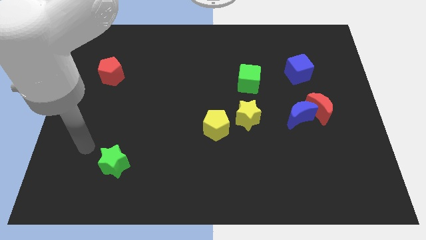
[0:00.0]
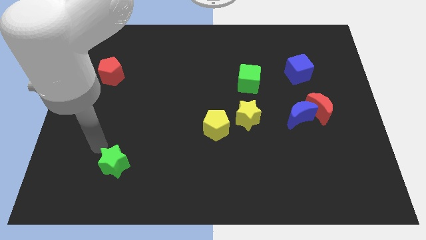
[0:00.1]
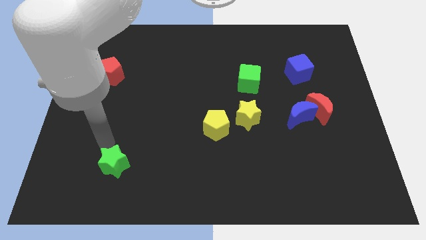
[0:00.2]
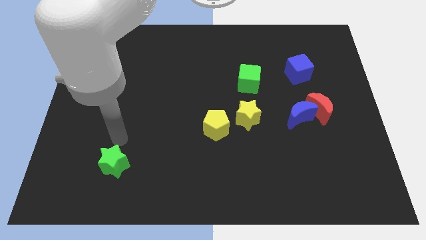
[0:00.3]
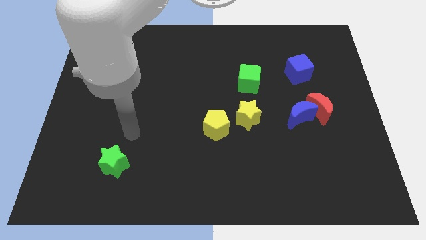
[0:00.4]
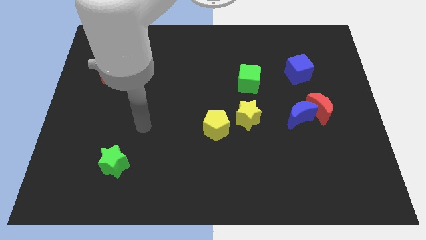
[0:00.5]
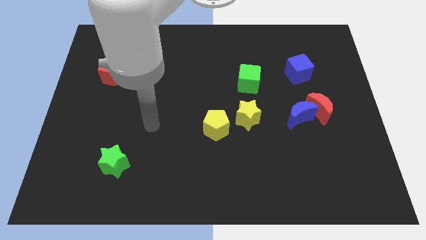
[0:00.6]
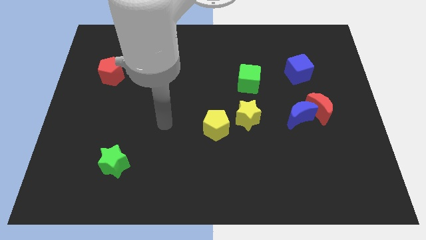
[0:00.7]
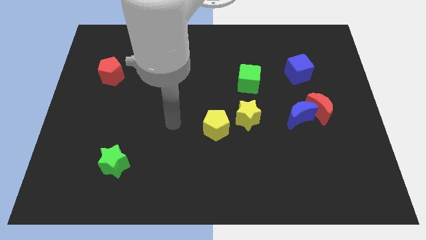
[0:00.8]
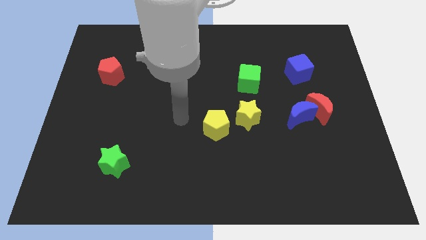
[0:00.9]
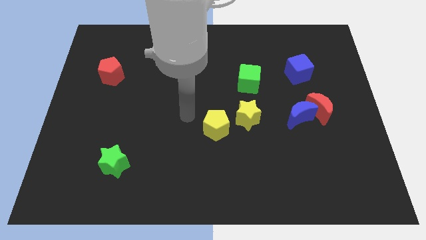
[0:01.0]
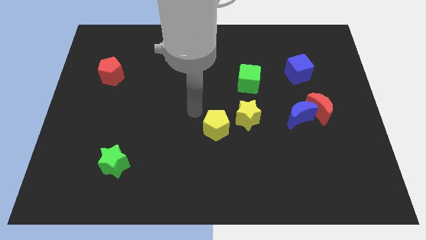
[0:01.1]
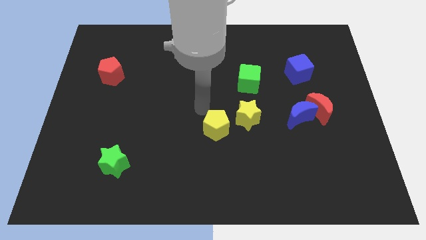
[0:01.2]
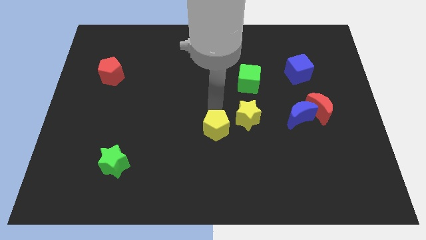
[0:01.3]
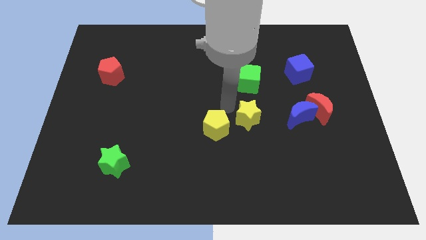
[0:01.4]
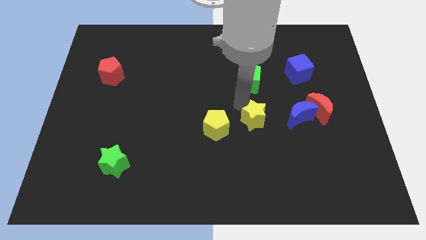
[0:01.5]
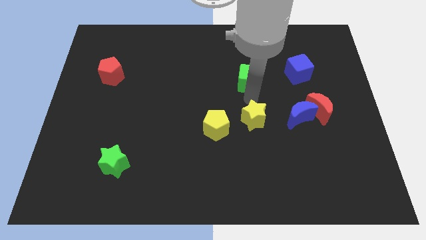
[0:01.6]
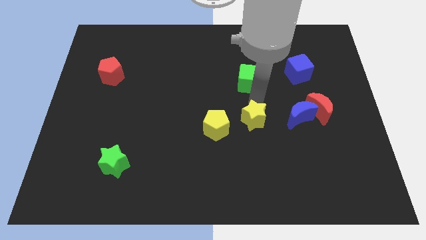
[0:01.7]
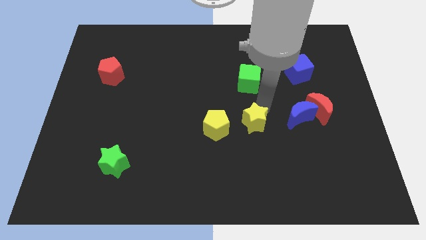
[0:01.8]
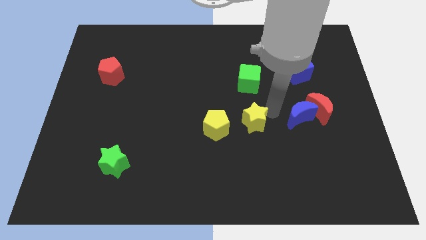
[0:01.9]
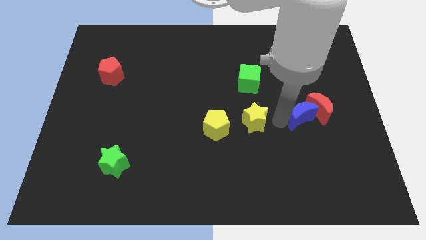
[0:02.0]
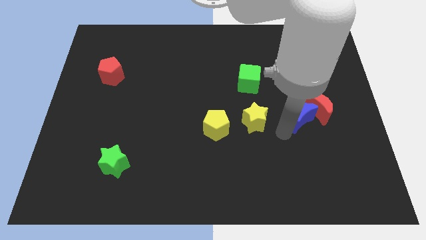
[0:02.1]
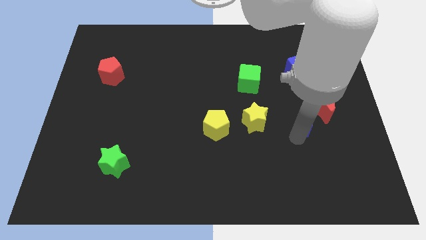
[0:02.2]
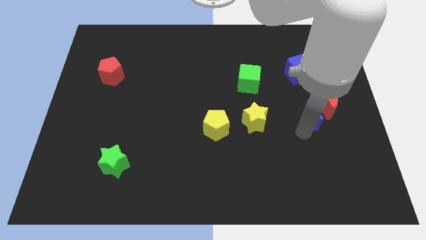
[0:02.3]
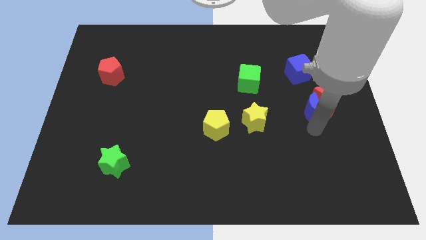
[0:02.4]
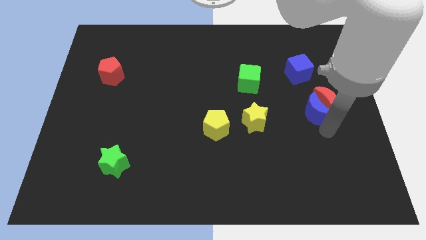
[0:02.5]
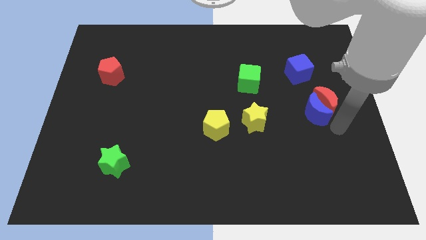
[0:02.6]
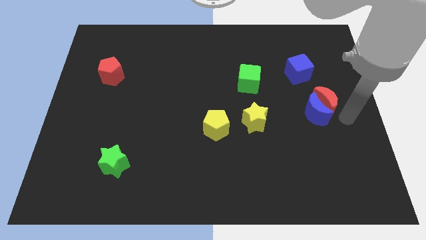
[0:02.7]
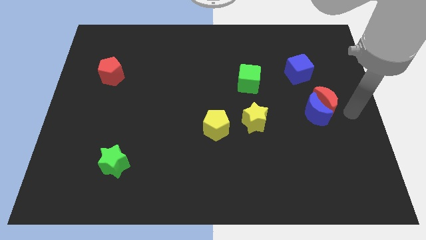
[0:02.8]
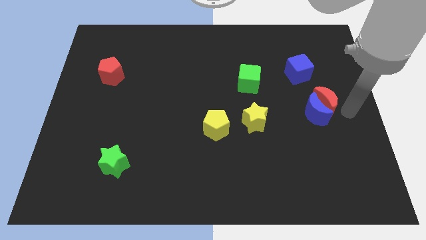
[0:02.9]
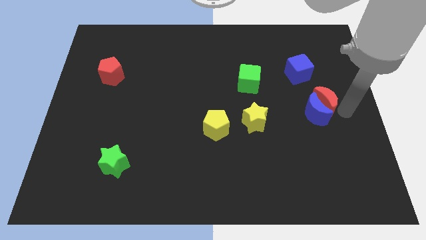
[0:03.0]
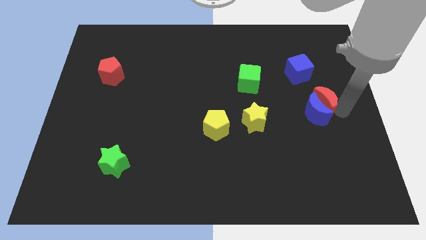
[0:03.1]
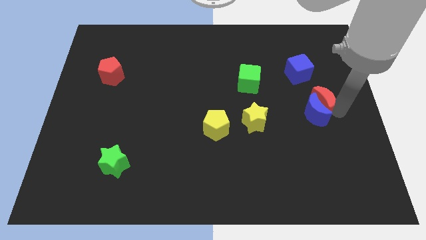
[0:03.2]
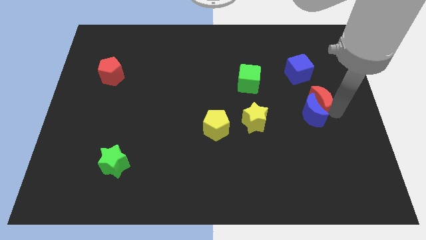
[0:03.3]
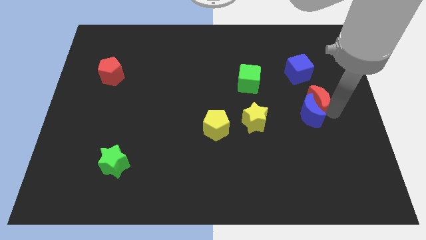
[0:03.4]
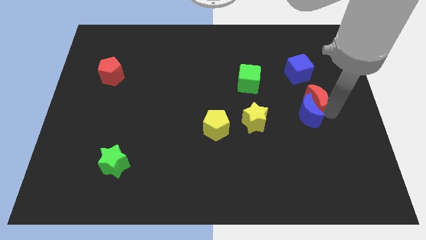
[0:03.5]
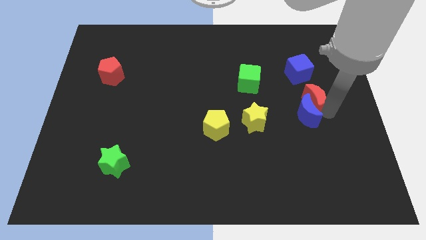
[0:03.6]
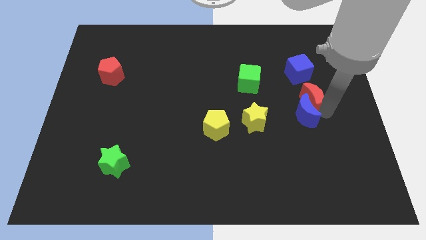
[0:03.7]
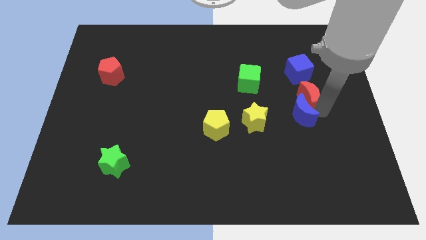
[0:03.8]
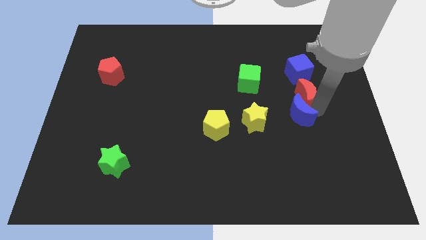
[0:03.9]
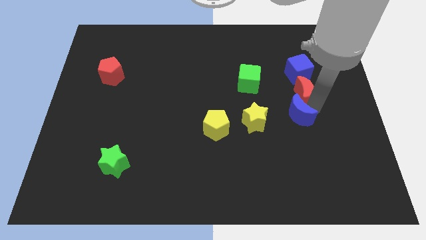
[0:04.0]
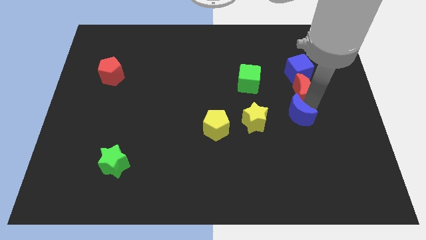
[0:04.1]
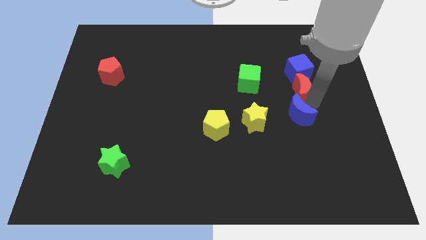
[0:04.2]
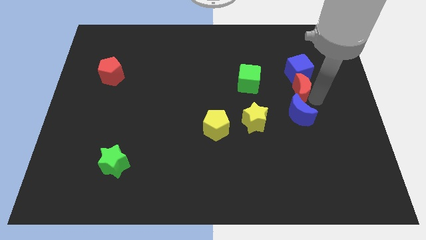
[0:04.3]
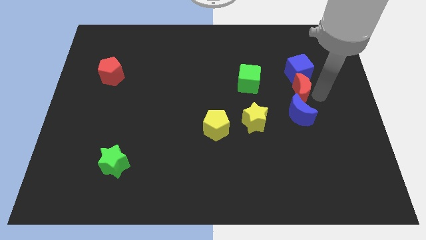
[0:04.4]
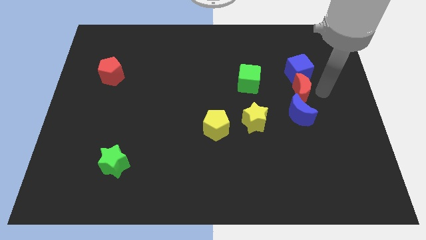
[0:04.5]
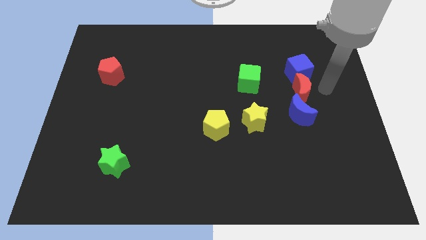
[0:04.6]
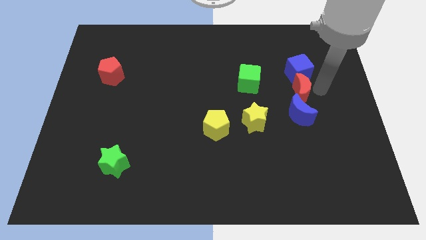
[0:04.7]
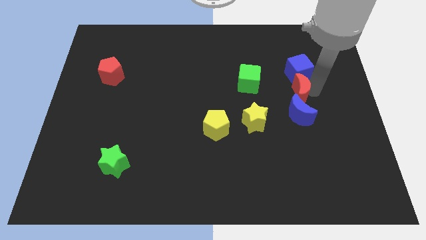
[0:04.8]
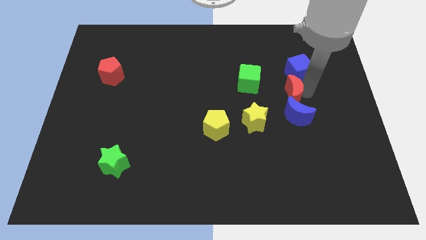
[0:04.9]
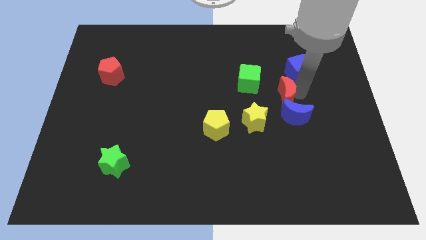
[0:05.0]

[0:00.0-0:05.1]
put the red moon diagonally down and to the right of the green cube

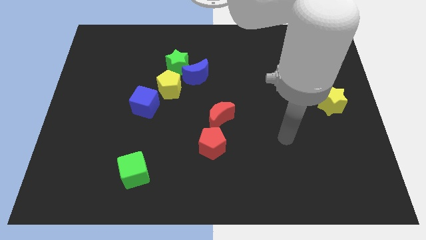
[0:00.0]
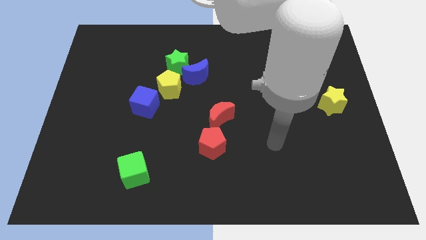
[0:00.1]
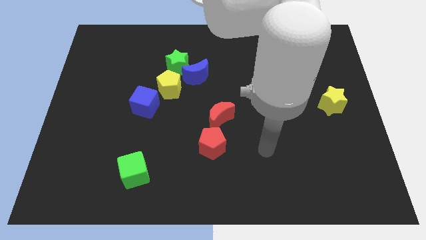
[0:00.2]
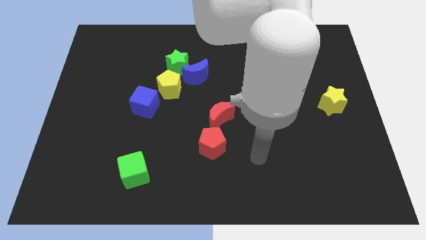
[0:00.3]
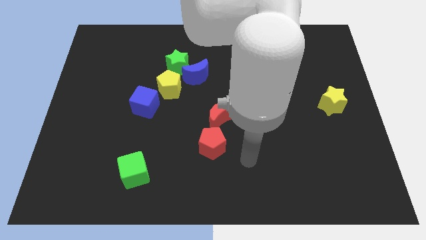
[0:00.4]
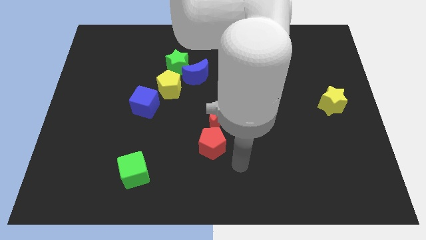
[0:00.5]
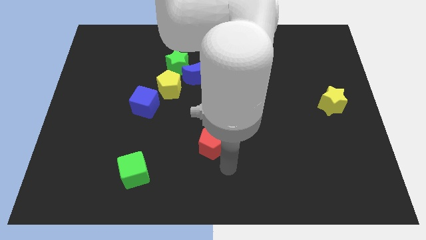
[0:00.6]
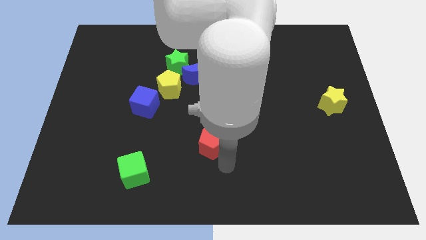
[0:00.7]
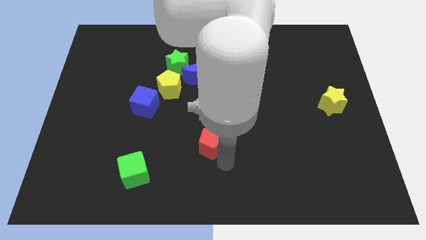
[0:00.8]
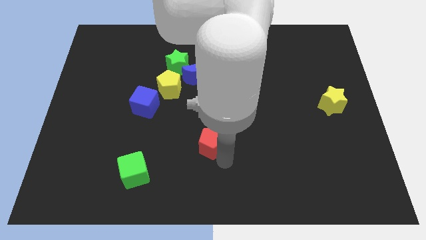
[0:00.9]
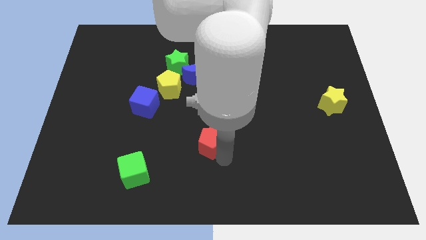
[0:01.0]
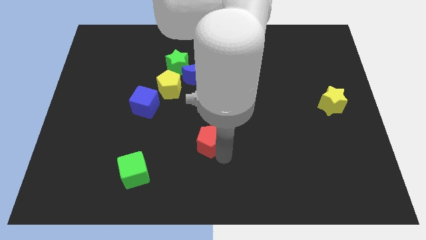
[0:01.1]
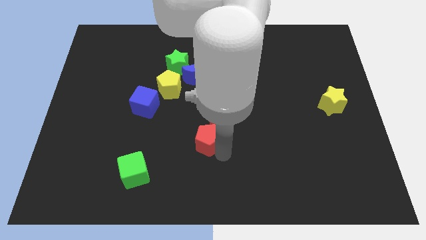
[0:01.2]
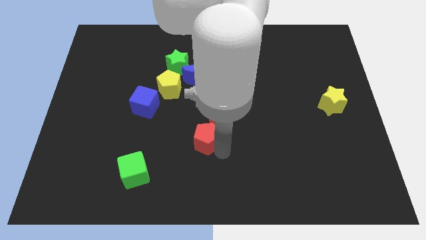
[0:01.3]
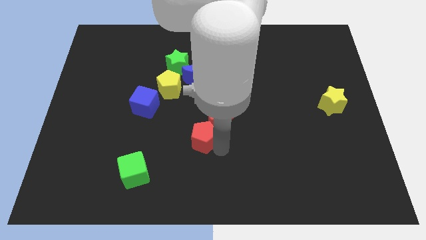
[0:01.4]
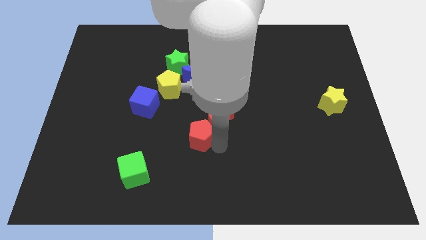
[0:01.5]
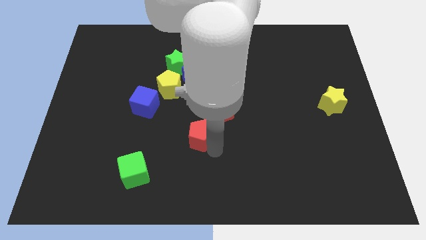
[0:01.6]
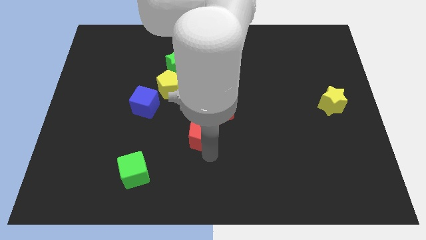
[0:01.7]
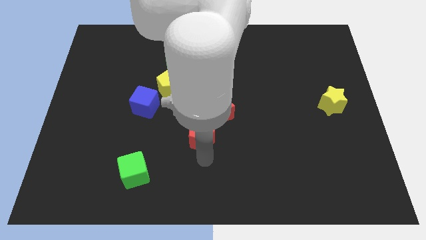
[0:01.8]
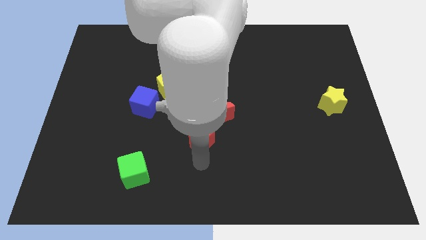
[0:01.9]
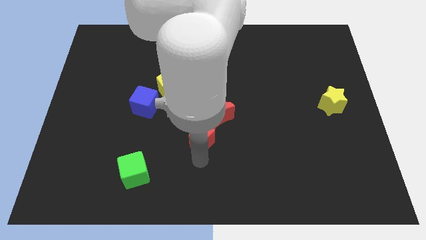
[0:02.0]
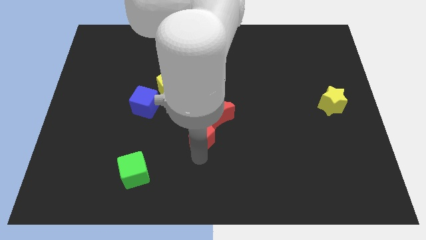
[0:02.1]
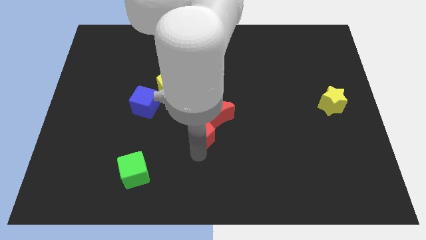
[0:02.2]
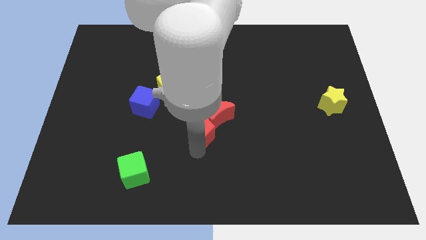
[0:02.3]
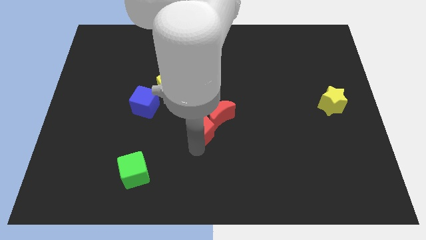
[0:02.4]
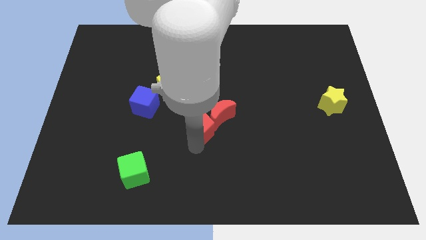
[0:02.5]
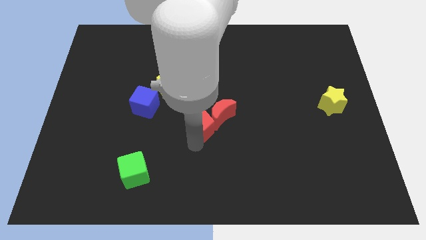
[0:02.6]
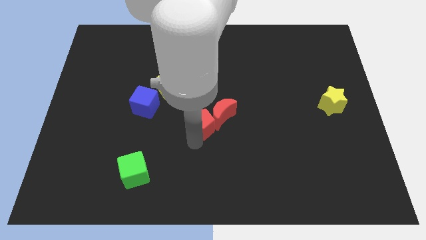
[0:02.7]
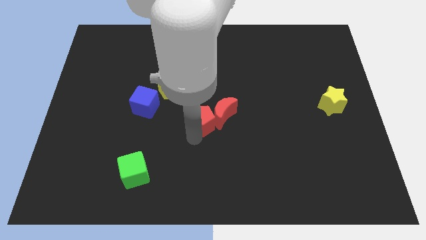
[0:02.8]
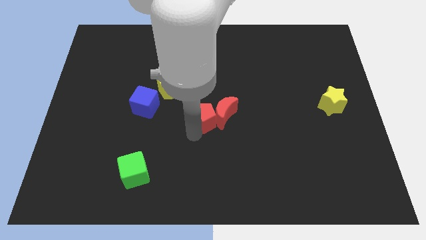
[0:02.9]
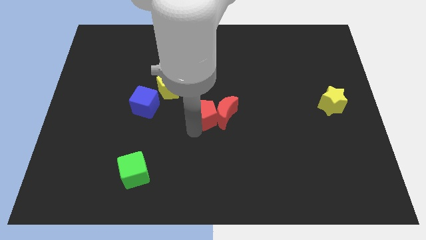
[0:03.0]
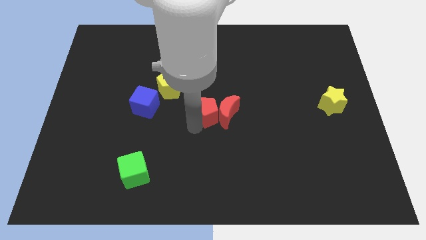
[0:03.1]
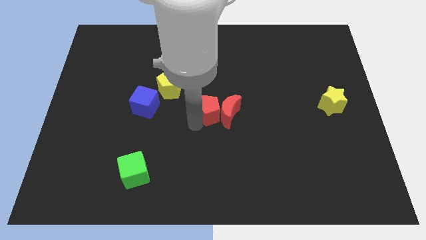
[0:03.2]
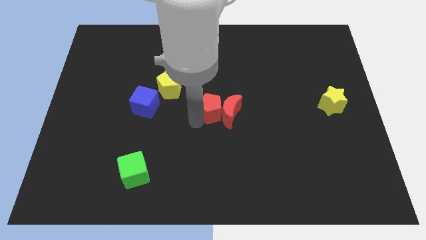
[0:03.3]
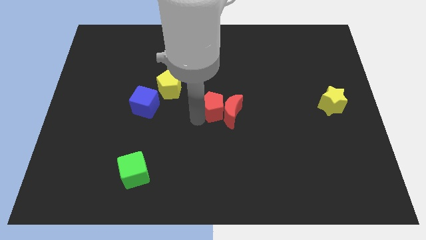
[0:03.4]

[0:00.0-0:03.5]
put the red pentagon to the bottom right side of the blue moon

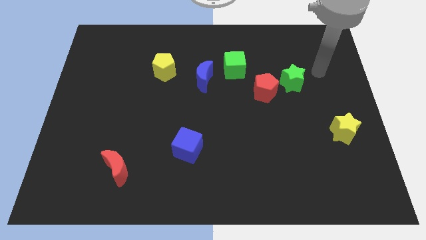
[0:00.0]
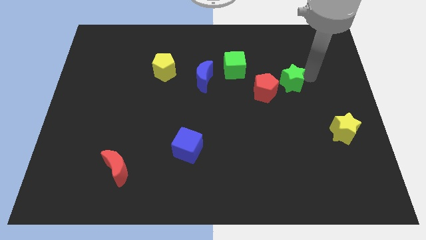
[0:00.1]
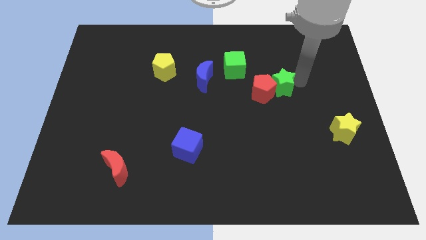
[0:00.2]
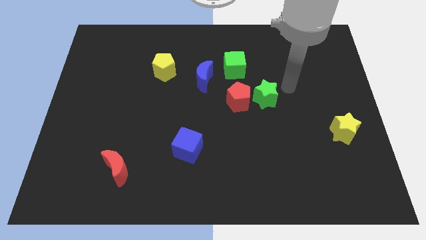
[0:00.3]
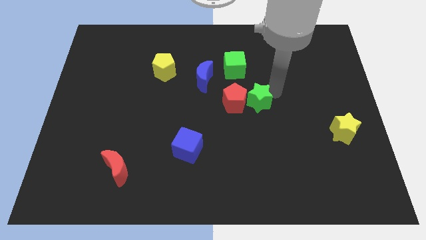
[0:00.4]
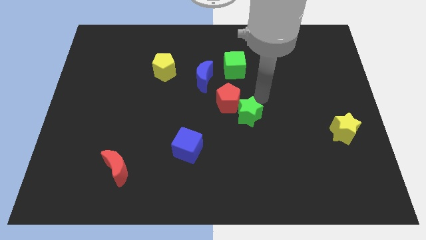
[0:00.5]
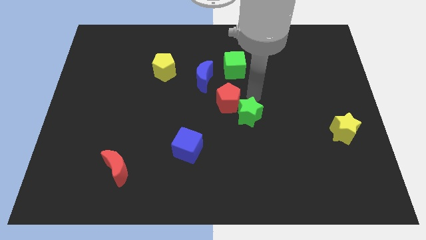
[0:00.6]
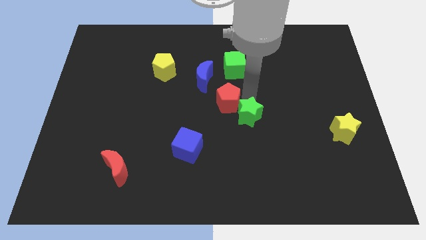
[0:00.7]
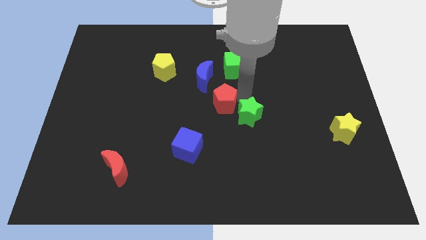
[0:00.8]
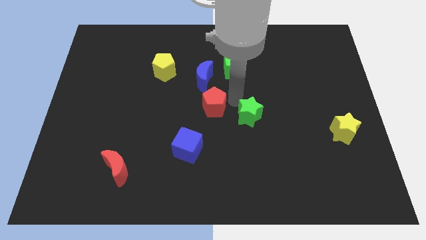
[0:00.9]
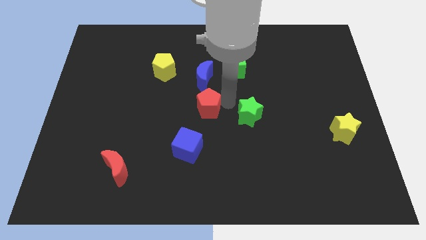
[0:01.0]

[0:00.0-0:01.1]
put the red pentagon to the top side of the blue cube
